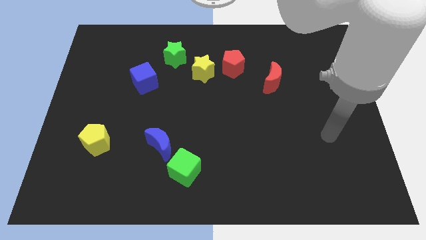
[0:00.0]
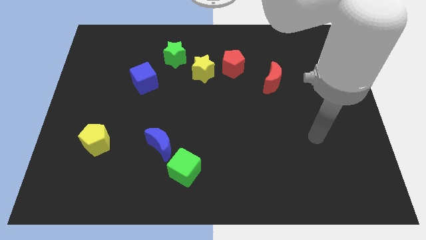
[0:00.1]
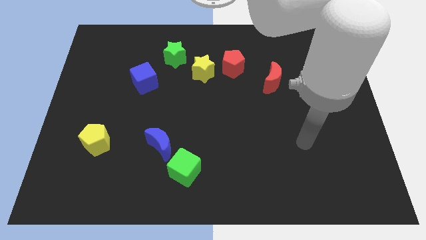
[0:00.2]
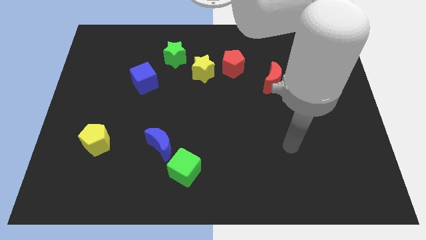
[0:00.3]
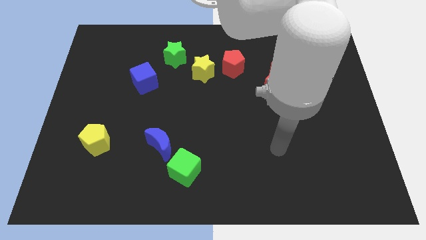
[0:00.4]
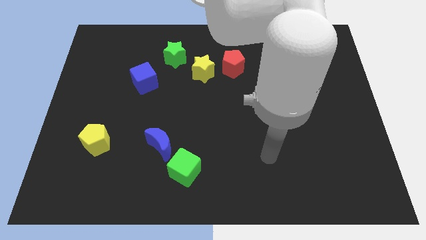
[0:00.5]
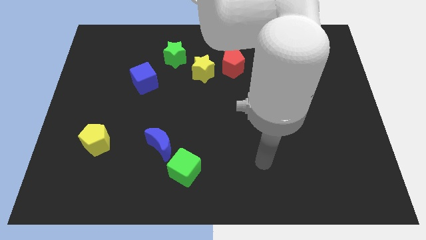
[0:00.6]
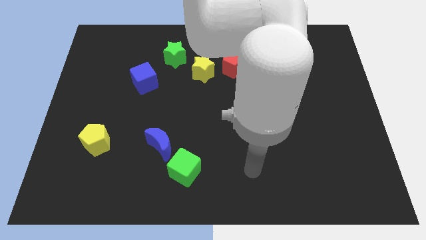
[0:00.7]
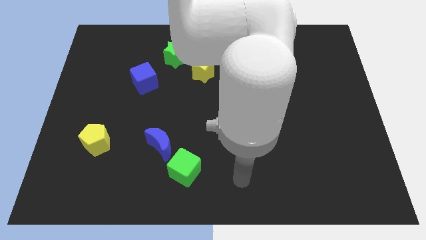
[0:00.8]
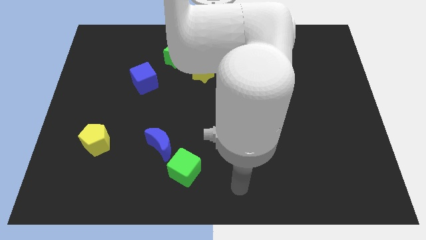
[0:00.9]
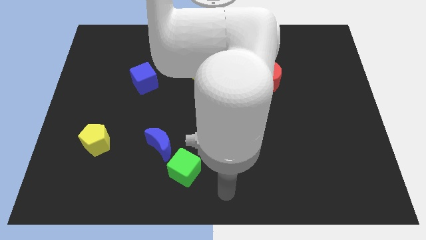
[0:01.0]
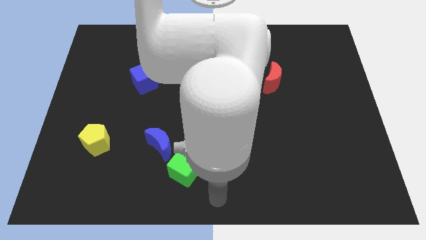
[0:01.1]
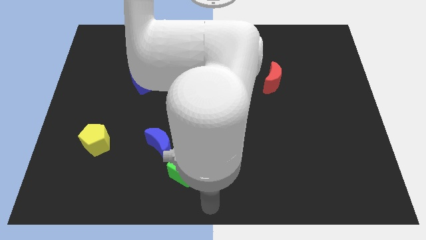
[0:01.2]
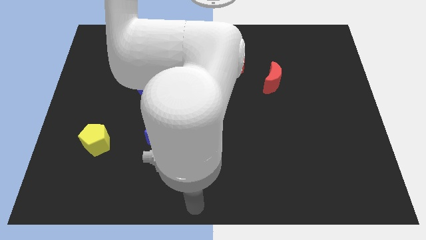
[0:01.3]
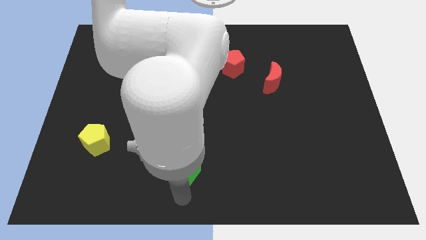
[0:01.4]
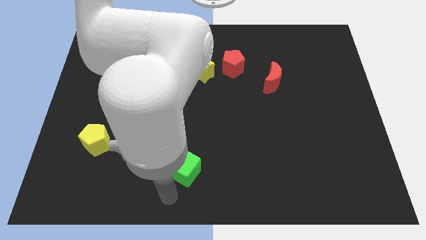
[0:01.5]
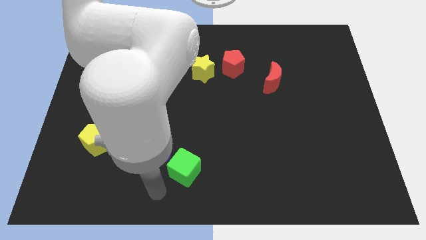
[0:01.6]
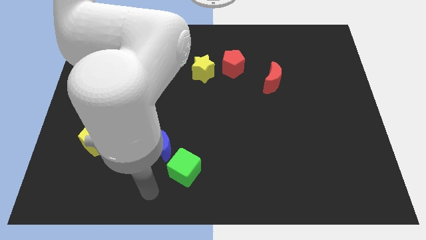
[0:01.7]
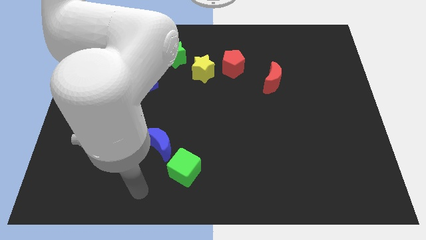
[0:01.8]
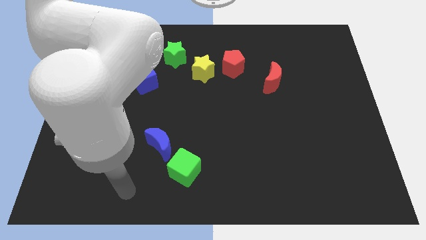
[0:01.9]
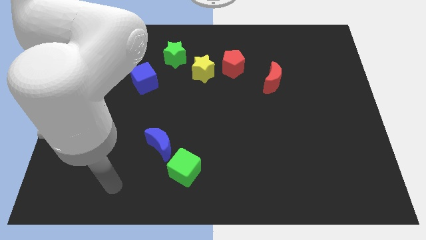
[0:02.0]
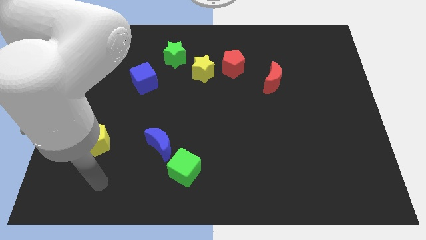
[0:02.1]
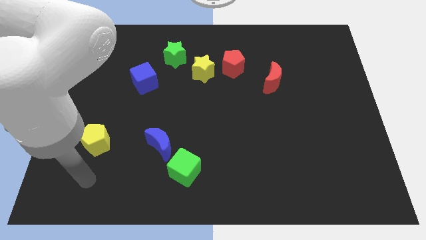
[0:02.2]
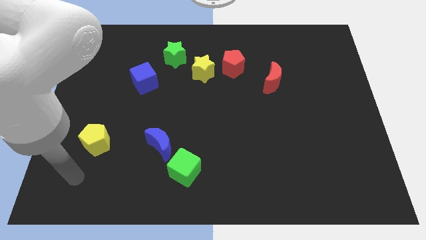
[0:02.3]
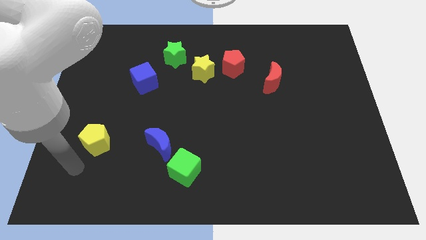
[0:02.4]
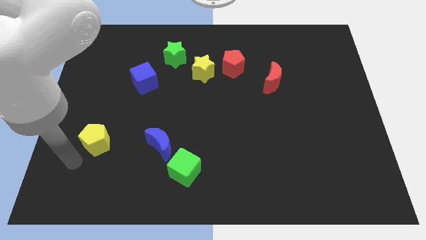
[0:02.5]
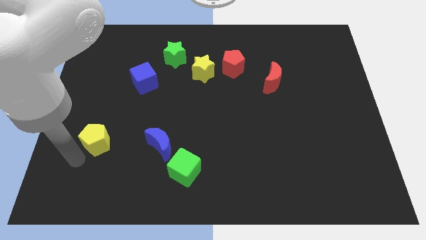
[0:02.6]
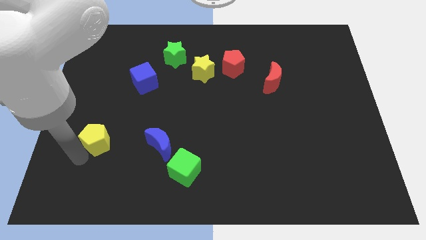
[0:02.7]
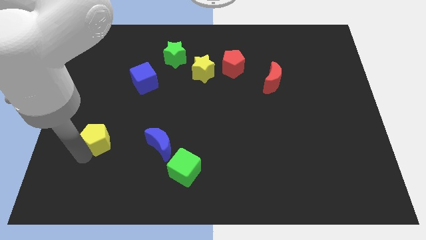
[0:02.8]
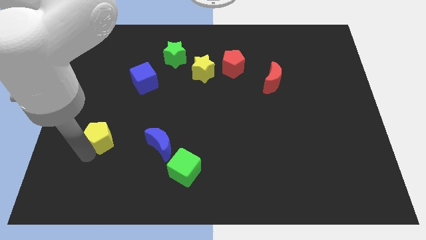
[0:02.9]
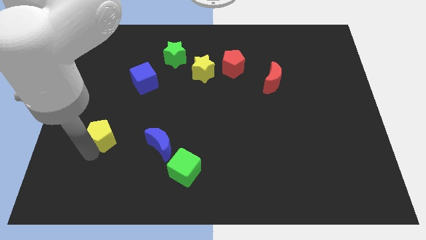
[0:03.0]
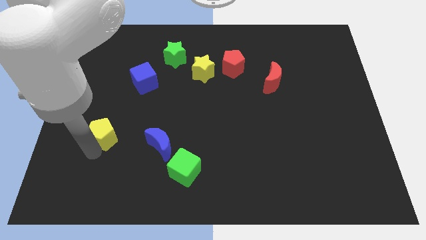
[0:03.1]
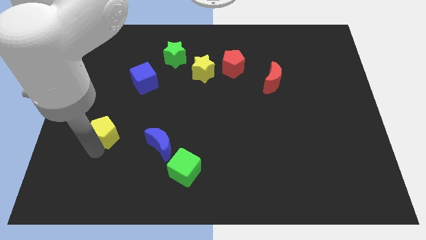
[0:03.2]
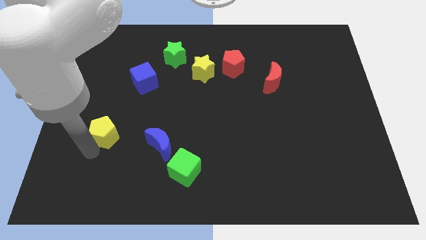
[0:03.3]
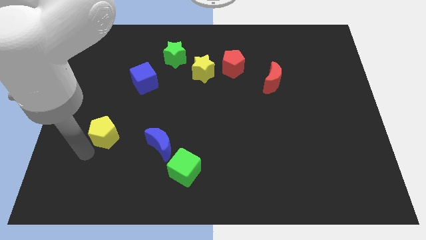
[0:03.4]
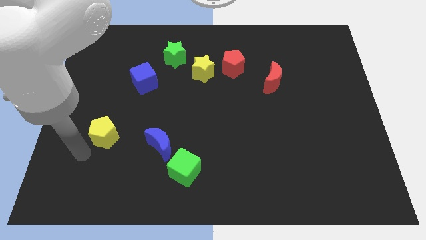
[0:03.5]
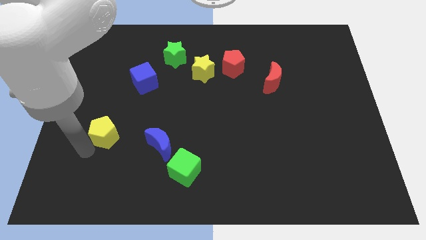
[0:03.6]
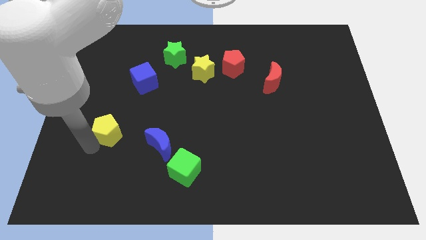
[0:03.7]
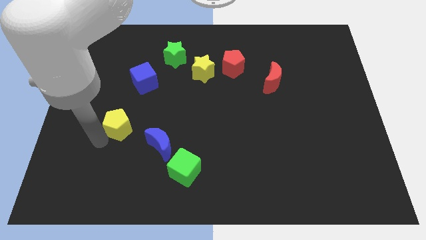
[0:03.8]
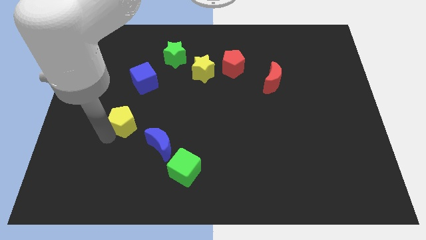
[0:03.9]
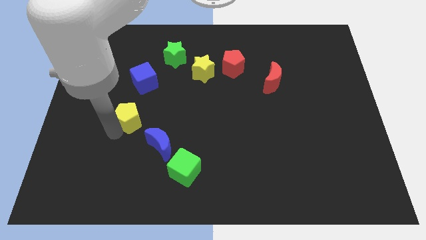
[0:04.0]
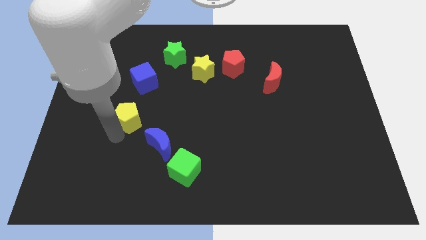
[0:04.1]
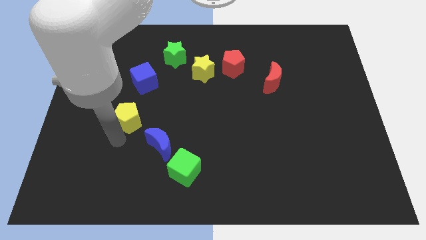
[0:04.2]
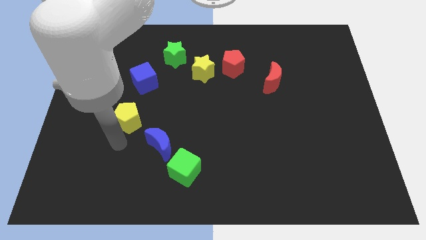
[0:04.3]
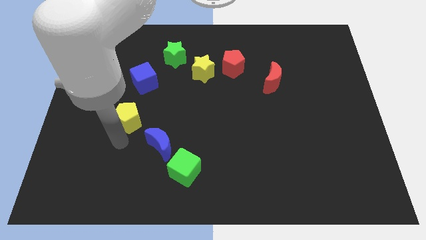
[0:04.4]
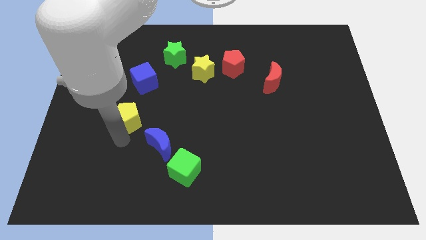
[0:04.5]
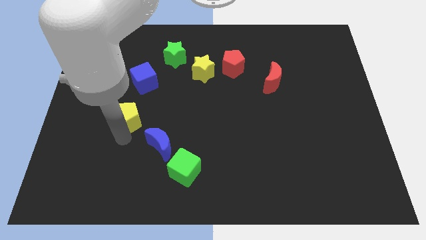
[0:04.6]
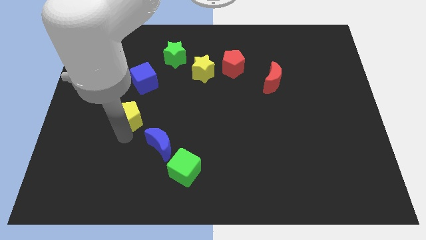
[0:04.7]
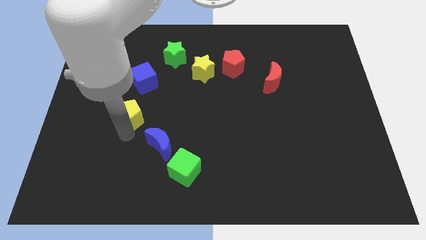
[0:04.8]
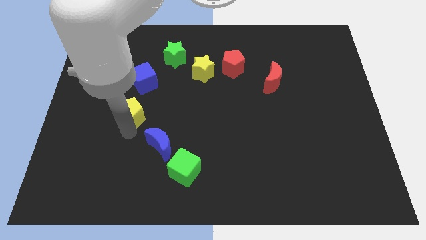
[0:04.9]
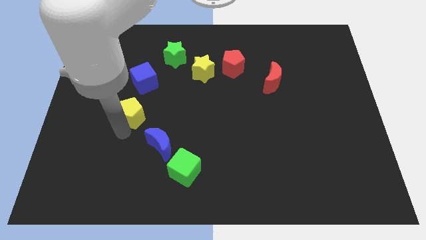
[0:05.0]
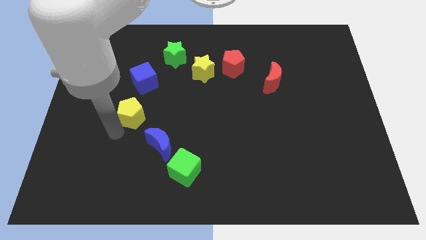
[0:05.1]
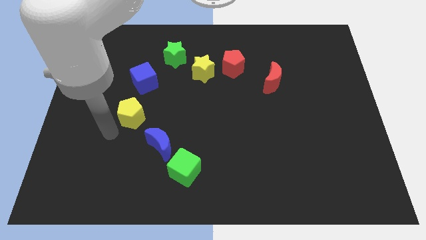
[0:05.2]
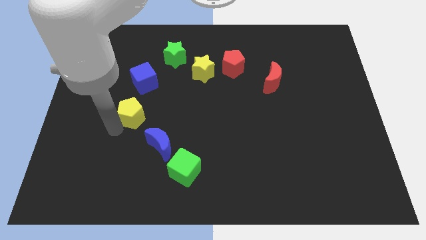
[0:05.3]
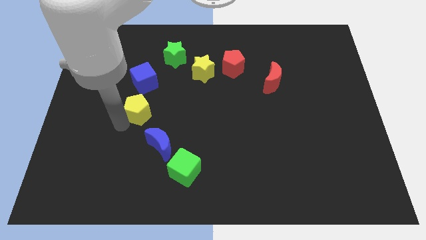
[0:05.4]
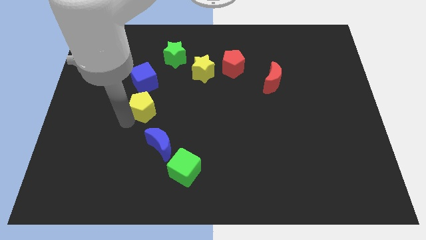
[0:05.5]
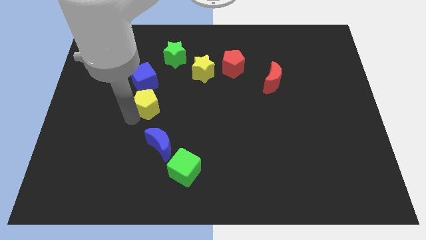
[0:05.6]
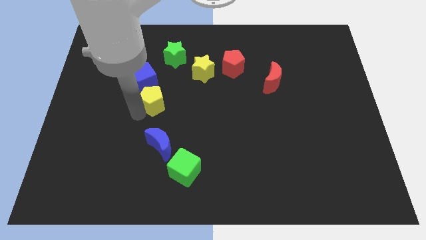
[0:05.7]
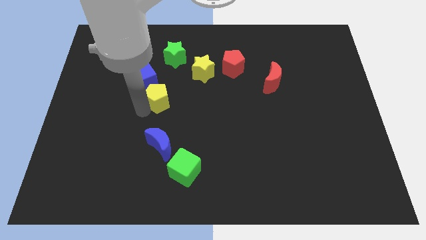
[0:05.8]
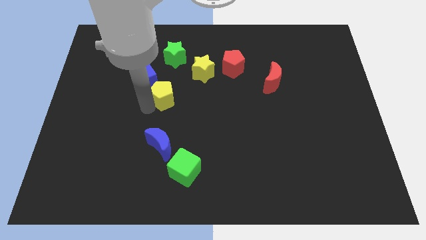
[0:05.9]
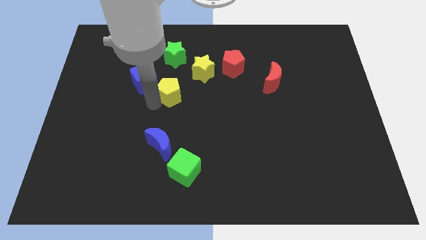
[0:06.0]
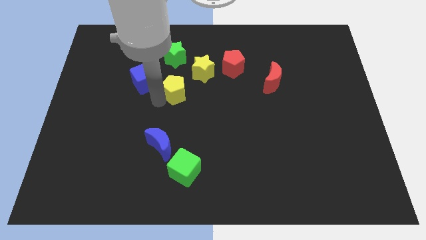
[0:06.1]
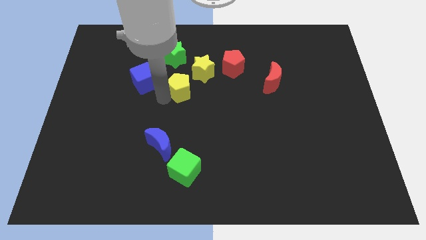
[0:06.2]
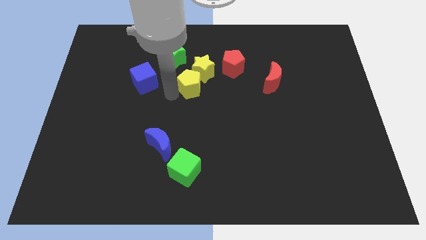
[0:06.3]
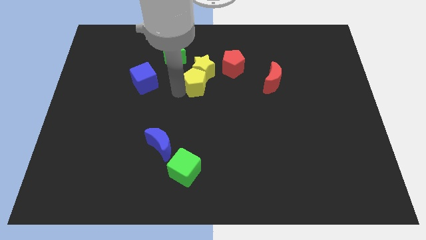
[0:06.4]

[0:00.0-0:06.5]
put the yellow pentagon to the bottom left of the red pentagon
